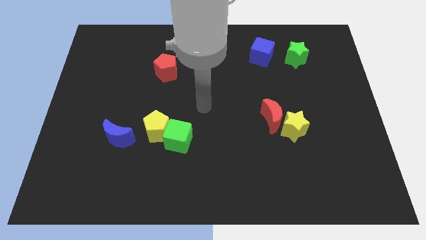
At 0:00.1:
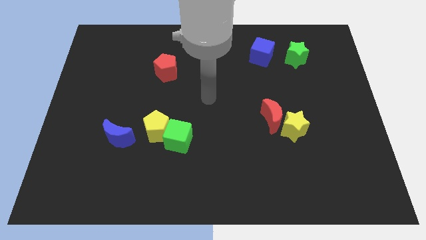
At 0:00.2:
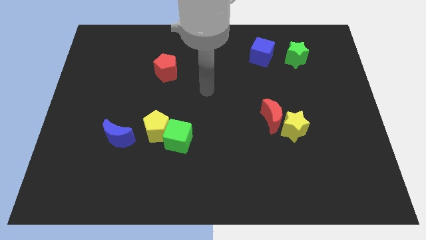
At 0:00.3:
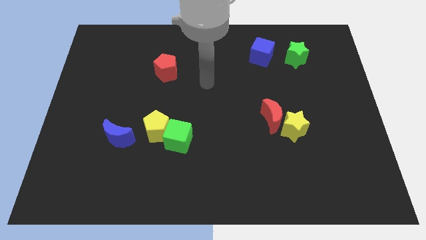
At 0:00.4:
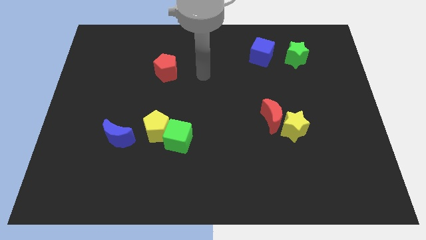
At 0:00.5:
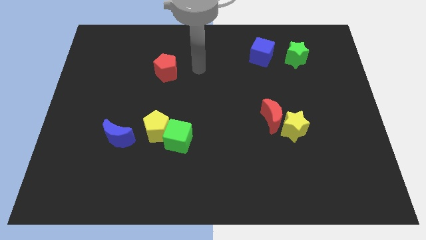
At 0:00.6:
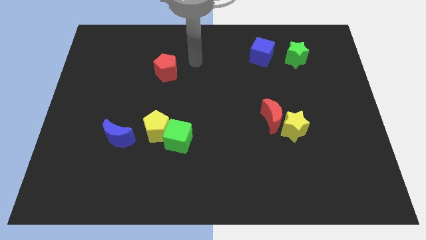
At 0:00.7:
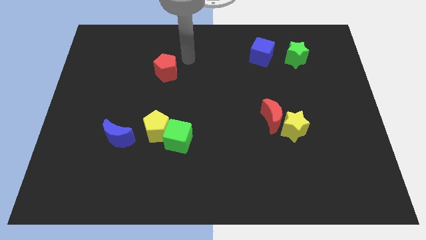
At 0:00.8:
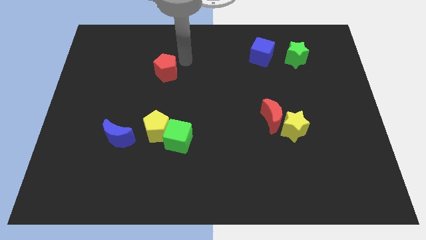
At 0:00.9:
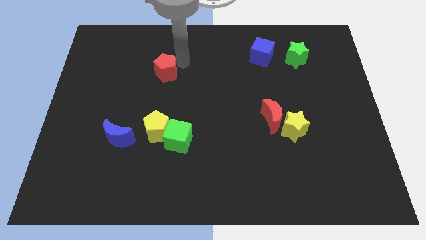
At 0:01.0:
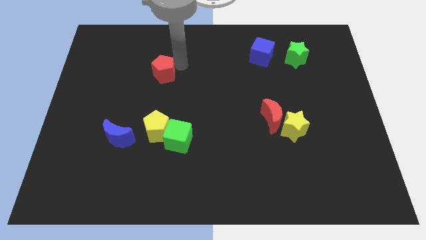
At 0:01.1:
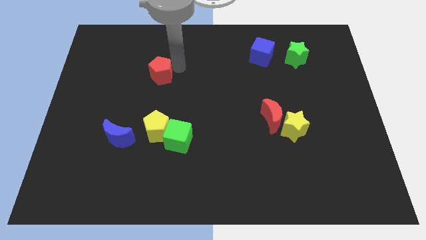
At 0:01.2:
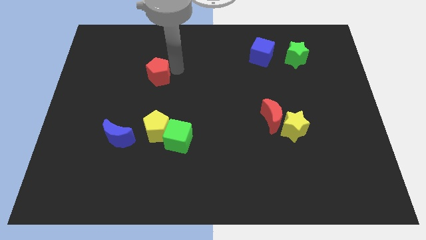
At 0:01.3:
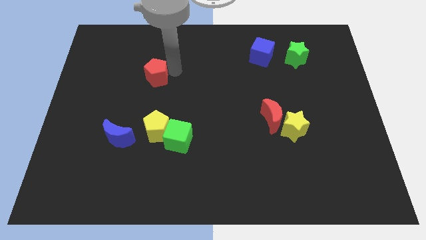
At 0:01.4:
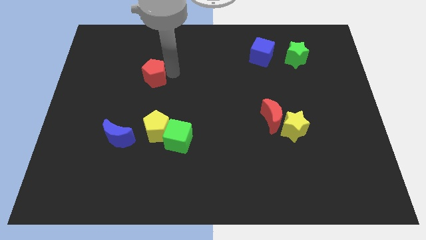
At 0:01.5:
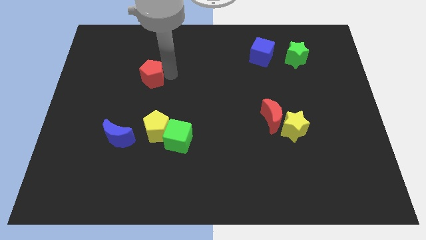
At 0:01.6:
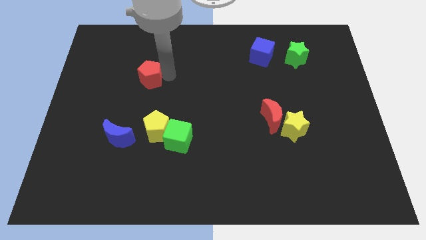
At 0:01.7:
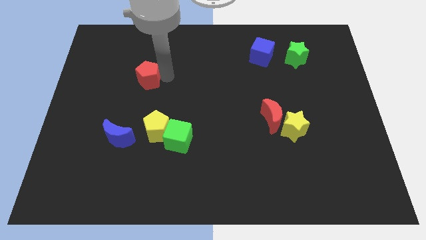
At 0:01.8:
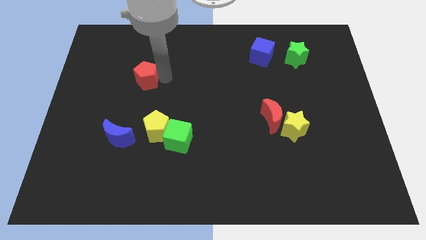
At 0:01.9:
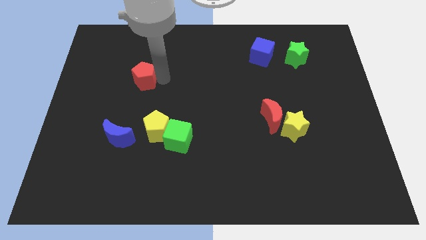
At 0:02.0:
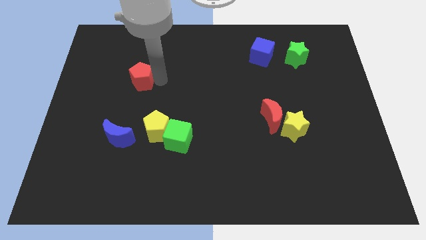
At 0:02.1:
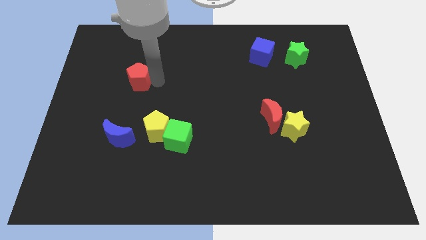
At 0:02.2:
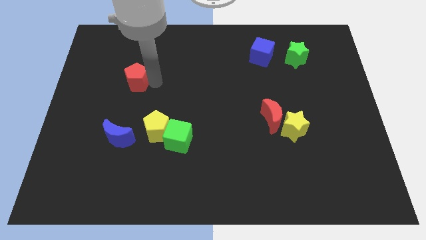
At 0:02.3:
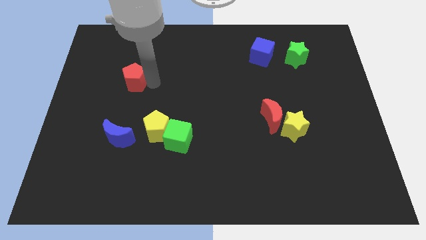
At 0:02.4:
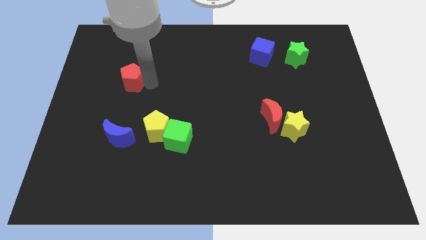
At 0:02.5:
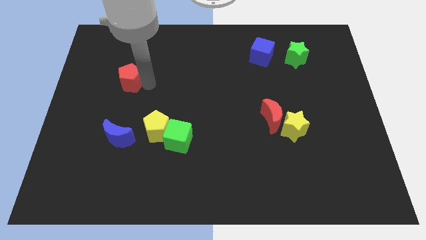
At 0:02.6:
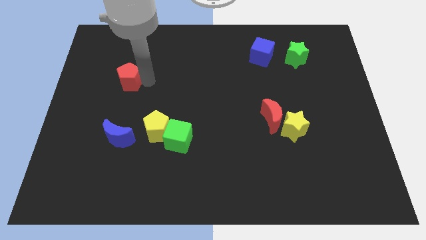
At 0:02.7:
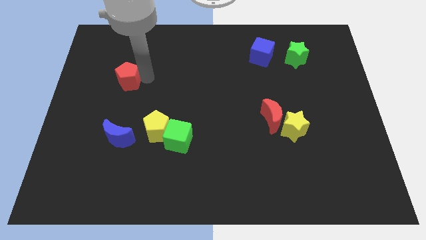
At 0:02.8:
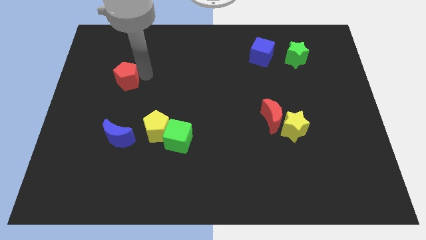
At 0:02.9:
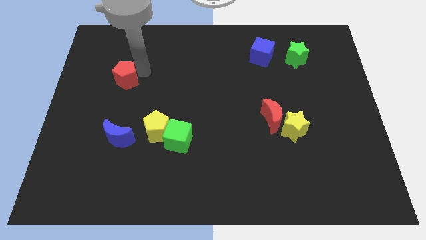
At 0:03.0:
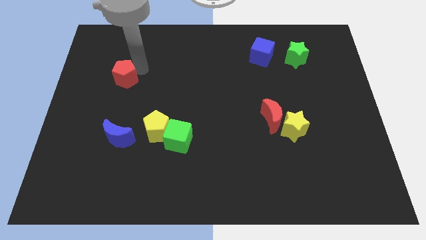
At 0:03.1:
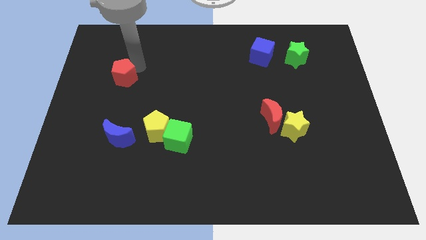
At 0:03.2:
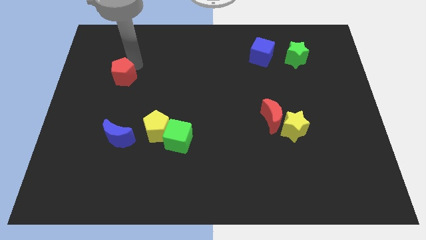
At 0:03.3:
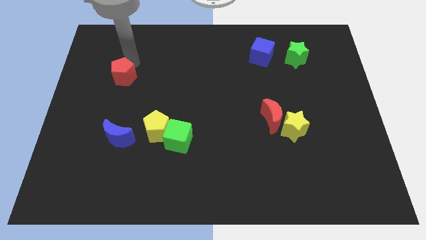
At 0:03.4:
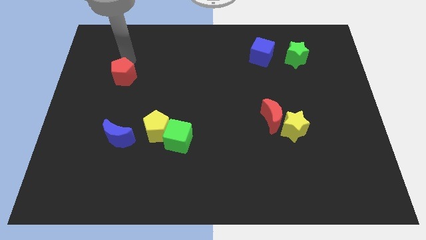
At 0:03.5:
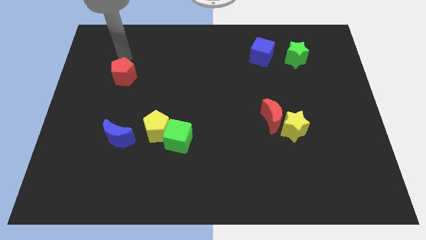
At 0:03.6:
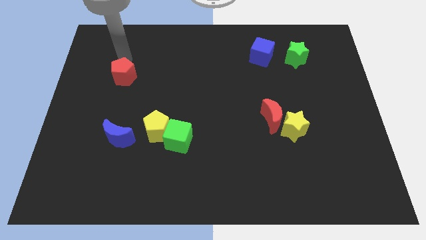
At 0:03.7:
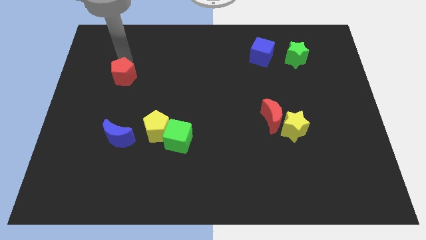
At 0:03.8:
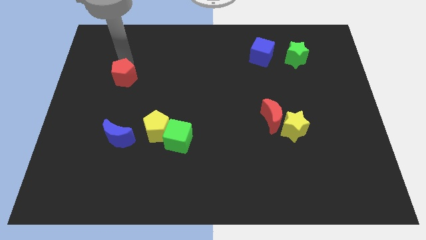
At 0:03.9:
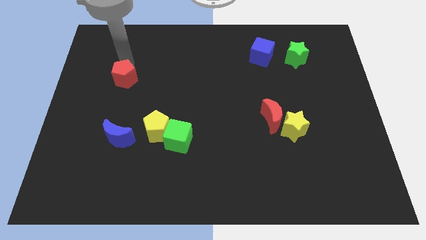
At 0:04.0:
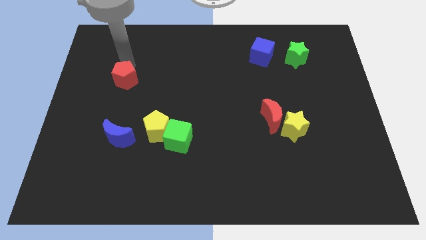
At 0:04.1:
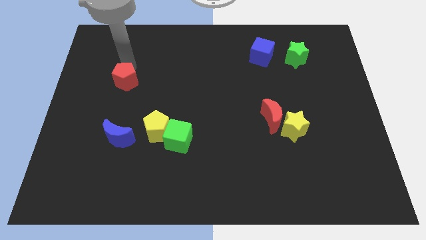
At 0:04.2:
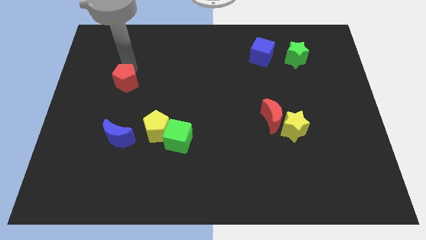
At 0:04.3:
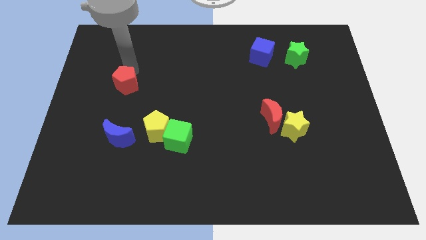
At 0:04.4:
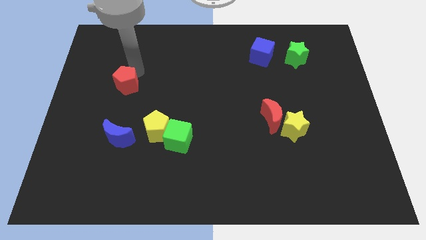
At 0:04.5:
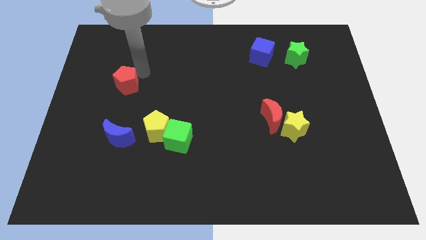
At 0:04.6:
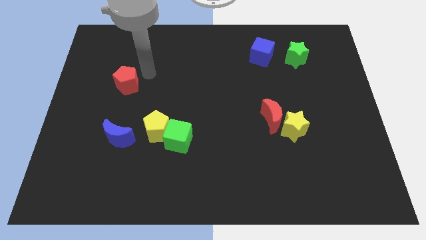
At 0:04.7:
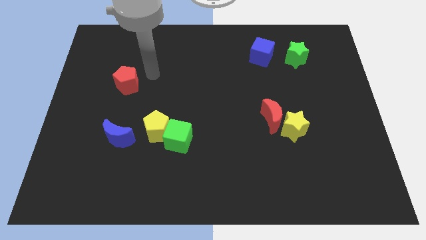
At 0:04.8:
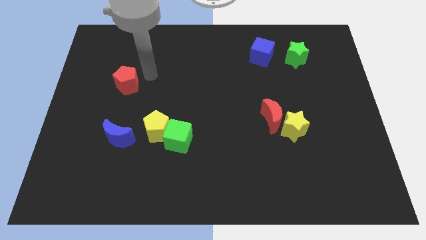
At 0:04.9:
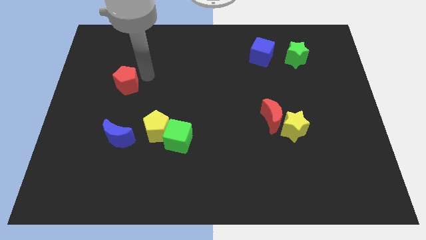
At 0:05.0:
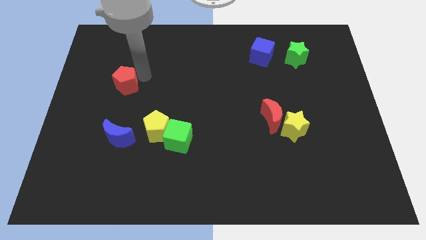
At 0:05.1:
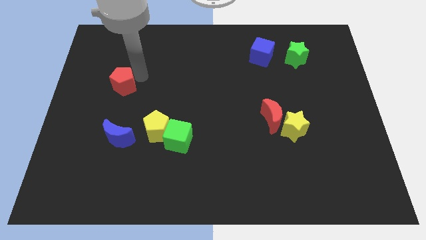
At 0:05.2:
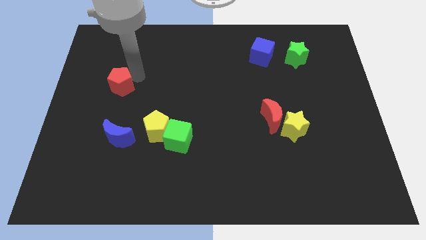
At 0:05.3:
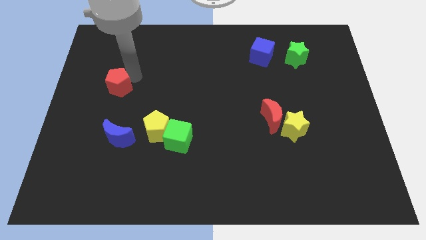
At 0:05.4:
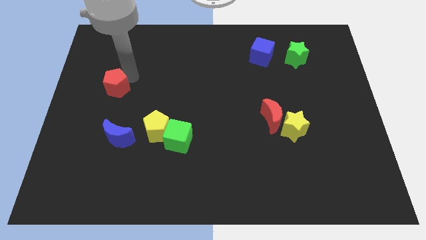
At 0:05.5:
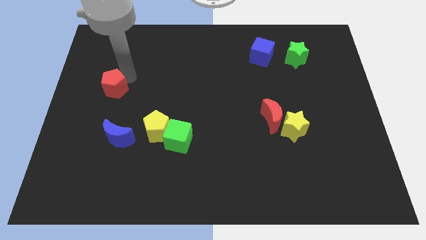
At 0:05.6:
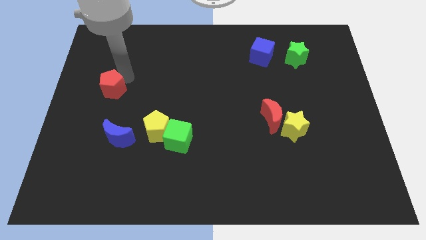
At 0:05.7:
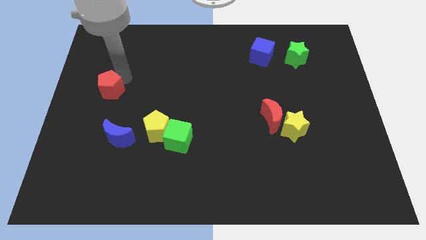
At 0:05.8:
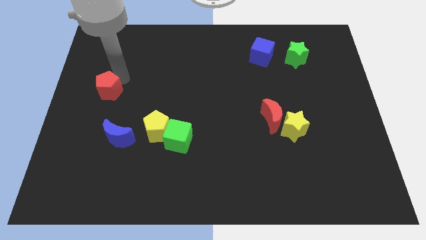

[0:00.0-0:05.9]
slide the red pentagon to the left side

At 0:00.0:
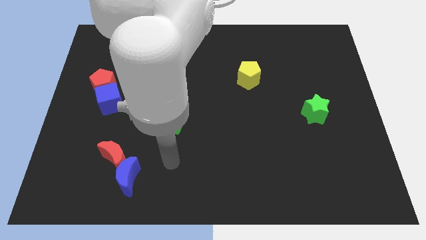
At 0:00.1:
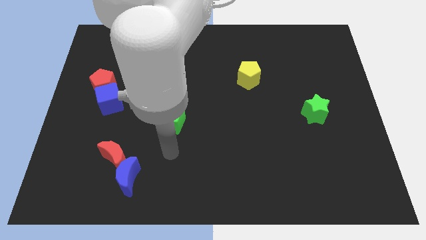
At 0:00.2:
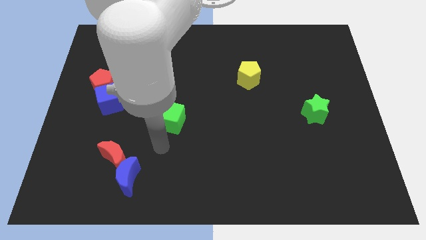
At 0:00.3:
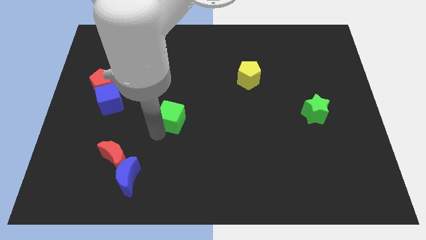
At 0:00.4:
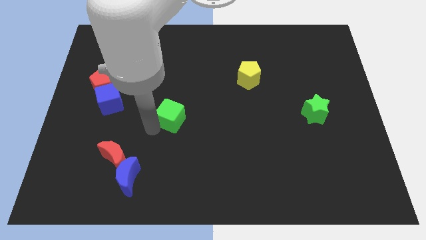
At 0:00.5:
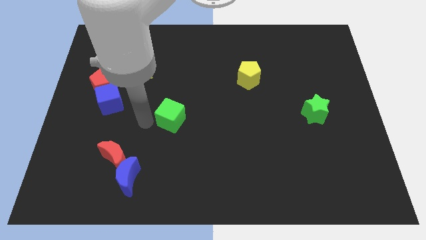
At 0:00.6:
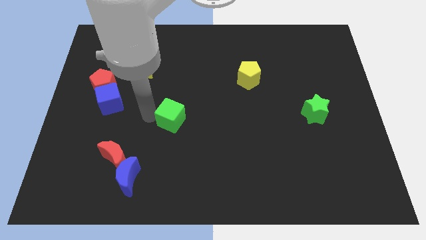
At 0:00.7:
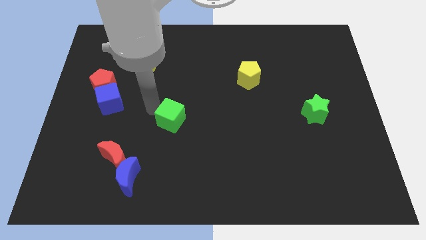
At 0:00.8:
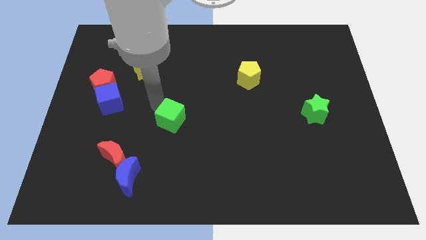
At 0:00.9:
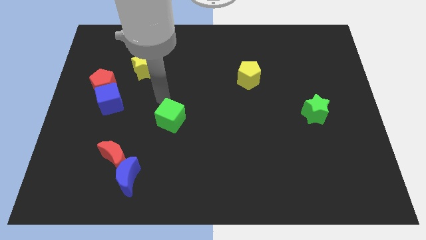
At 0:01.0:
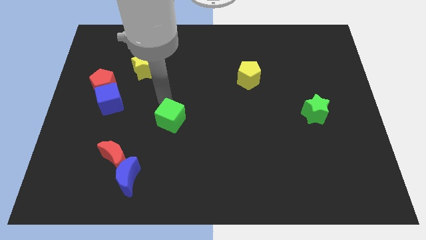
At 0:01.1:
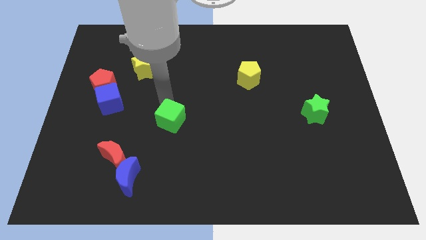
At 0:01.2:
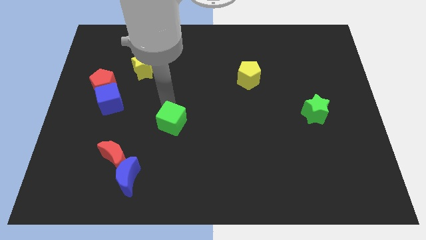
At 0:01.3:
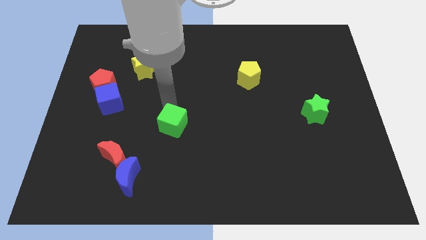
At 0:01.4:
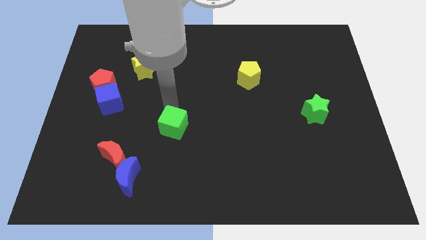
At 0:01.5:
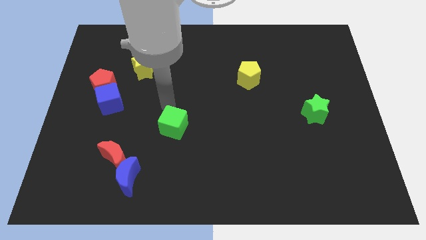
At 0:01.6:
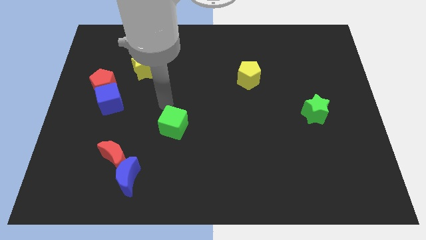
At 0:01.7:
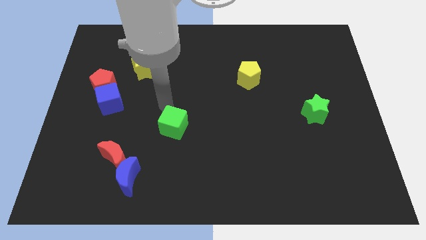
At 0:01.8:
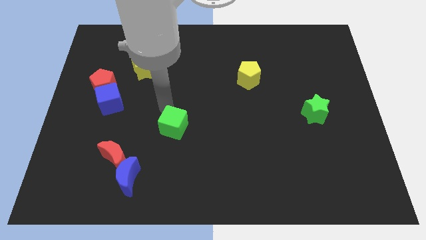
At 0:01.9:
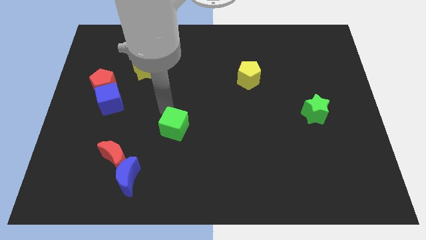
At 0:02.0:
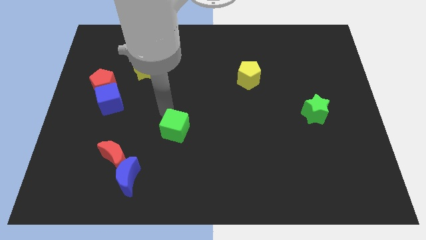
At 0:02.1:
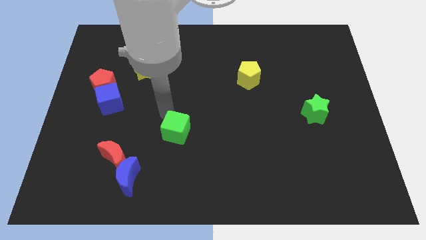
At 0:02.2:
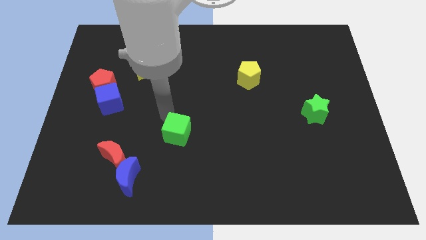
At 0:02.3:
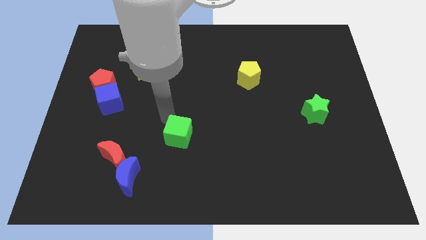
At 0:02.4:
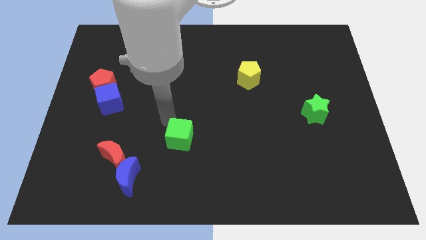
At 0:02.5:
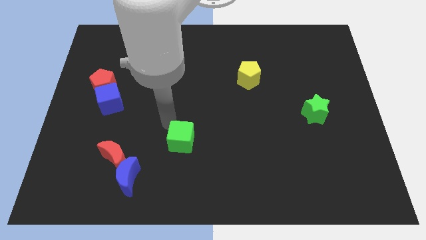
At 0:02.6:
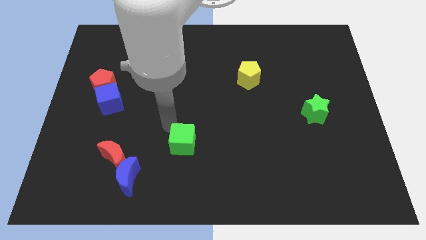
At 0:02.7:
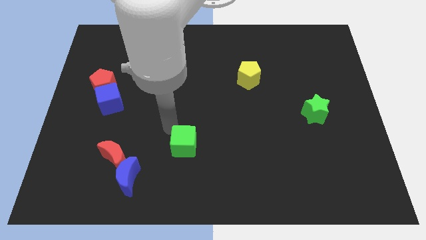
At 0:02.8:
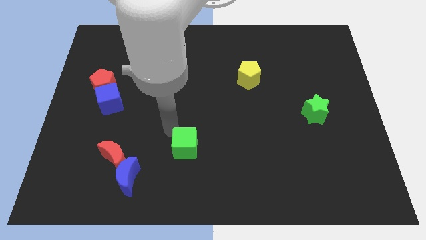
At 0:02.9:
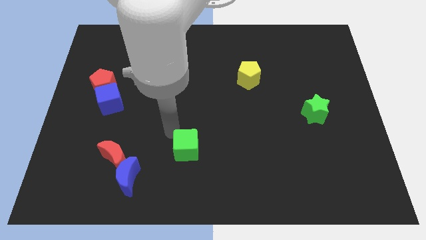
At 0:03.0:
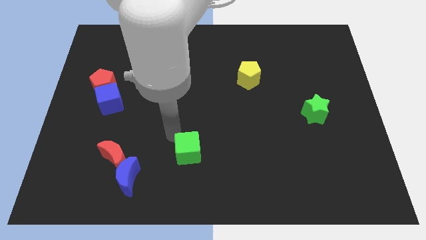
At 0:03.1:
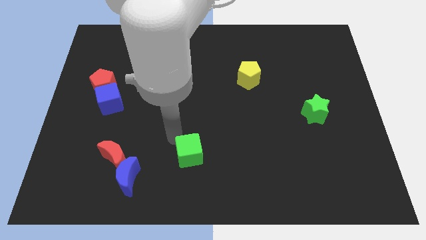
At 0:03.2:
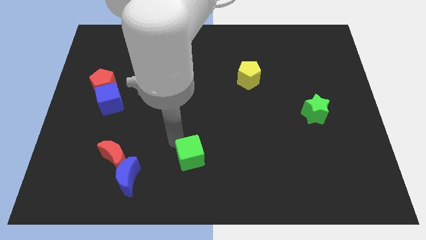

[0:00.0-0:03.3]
slide the green cube to the bottom
